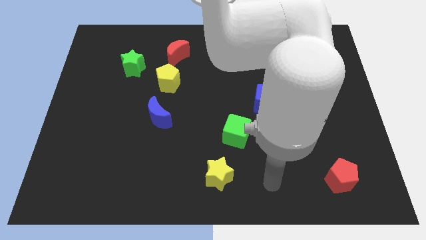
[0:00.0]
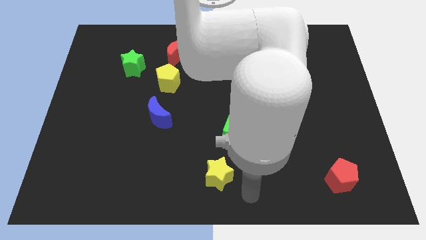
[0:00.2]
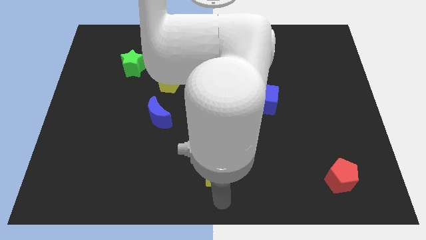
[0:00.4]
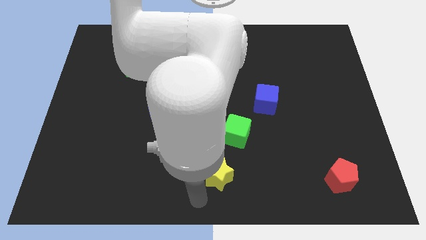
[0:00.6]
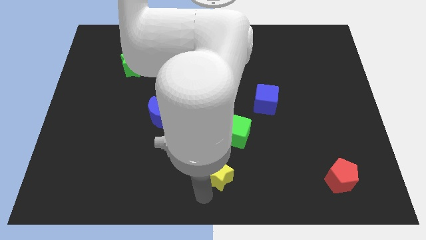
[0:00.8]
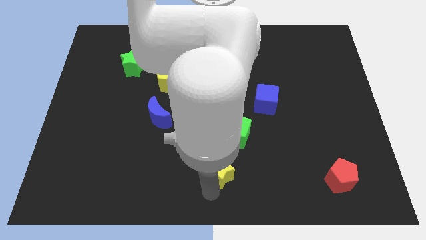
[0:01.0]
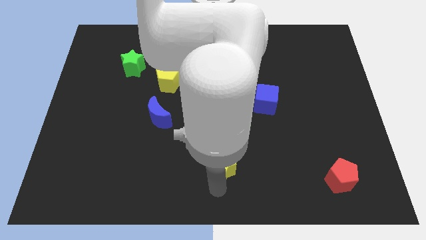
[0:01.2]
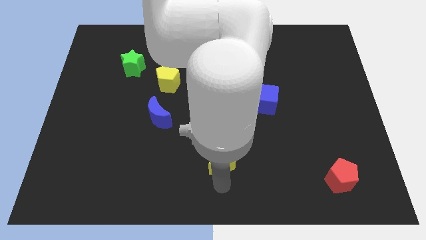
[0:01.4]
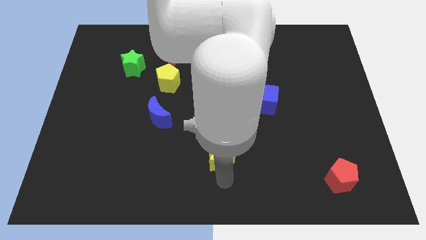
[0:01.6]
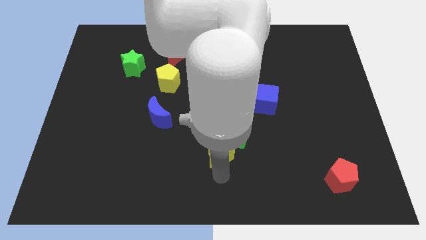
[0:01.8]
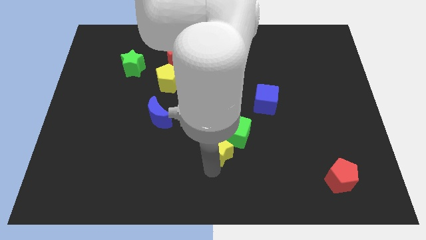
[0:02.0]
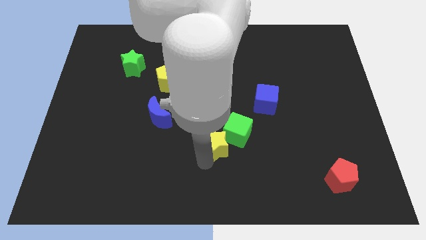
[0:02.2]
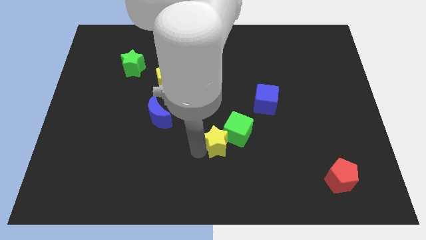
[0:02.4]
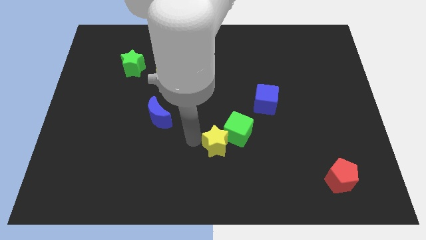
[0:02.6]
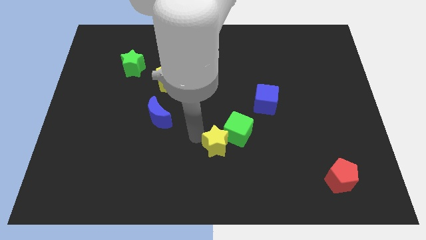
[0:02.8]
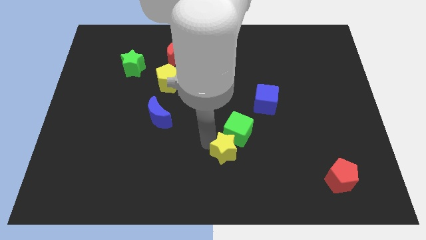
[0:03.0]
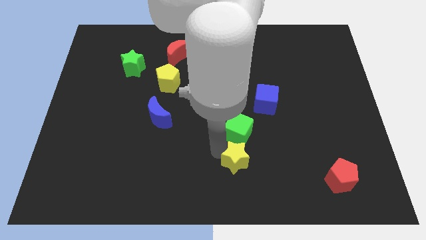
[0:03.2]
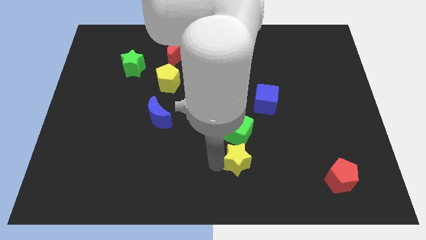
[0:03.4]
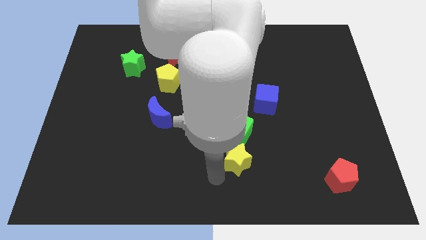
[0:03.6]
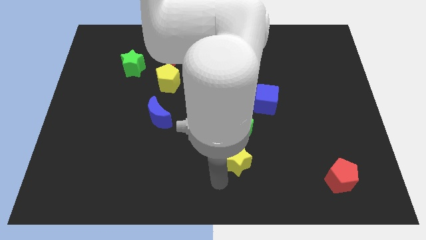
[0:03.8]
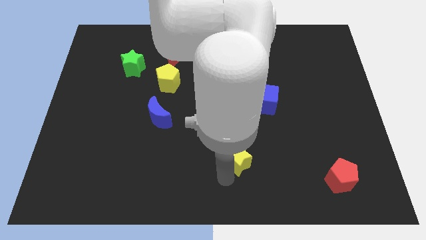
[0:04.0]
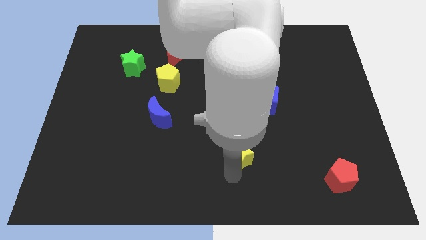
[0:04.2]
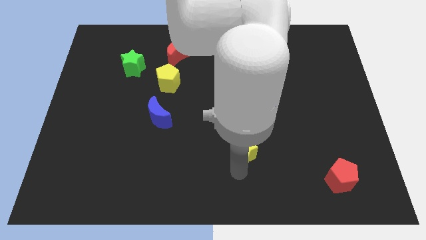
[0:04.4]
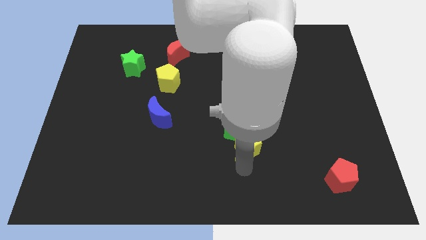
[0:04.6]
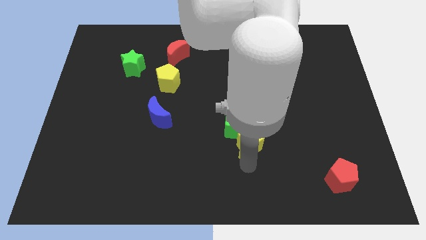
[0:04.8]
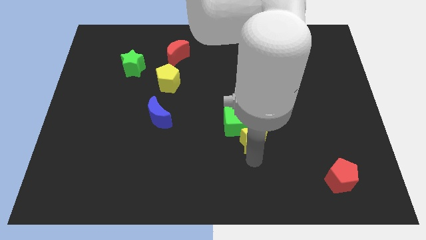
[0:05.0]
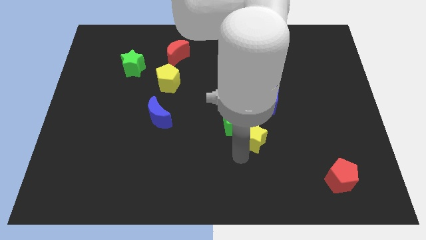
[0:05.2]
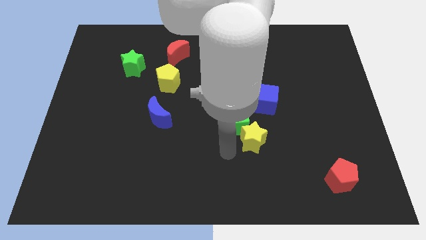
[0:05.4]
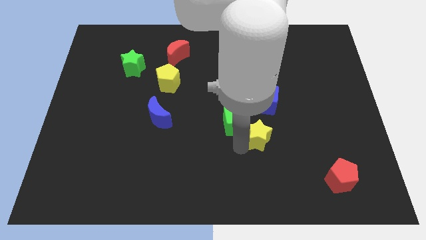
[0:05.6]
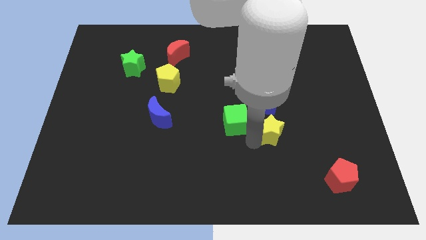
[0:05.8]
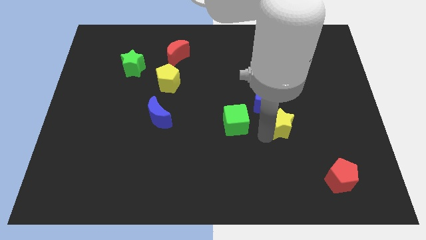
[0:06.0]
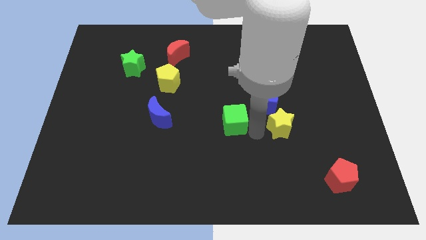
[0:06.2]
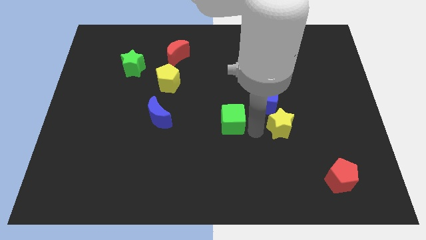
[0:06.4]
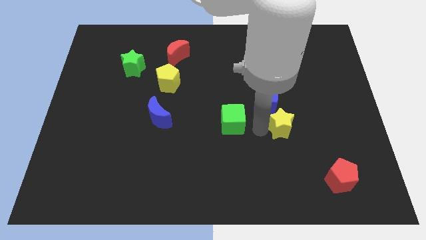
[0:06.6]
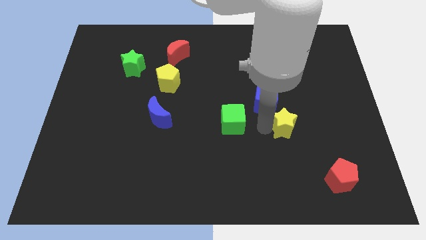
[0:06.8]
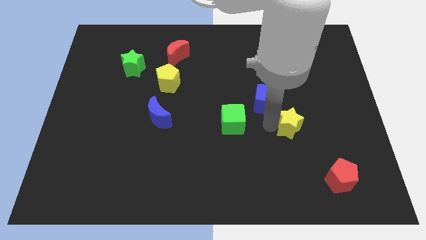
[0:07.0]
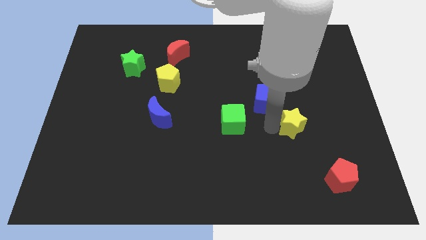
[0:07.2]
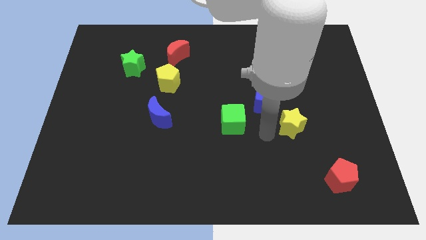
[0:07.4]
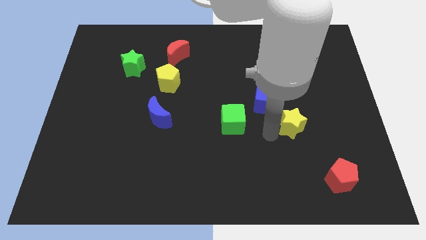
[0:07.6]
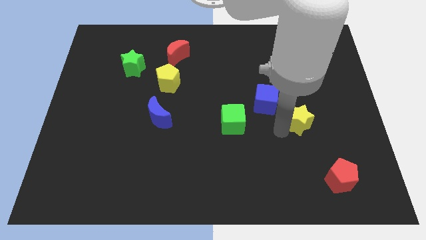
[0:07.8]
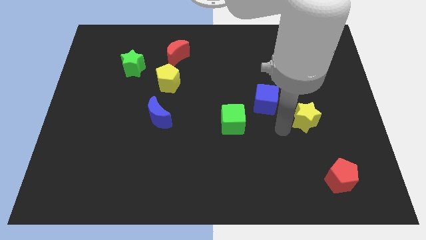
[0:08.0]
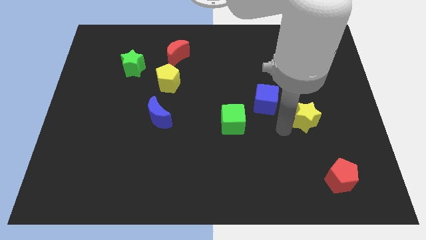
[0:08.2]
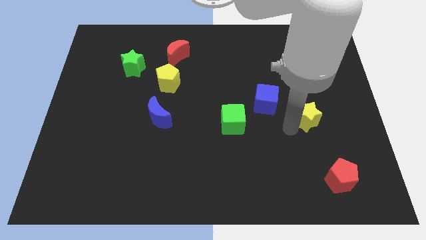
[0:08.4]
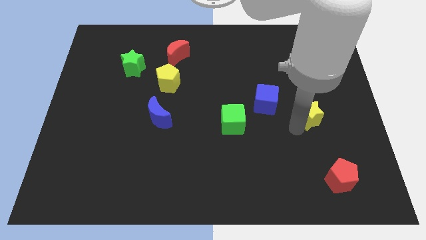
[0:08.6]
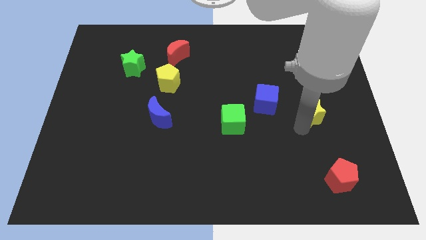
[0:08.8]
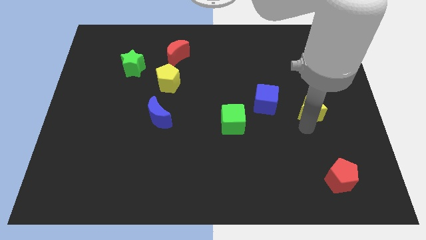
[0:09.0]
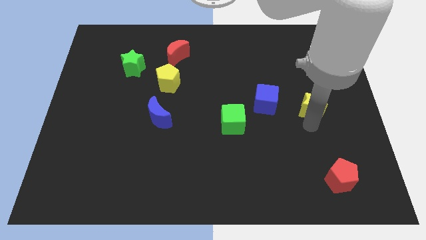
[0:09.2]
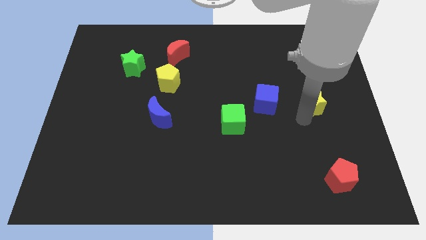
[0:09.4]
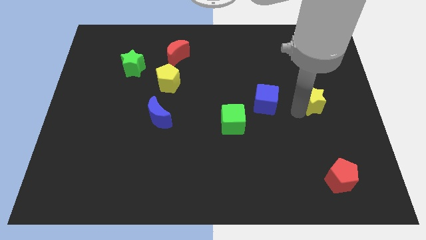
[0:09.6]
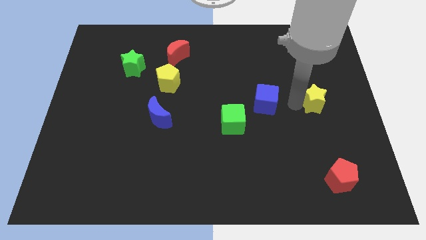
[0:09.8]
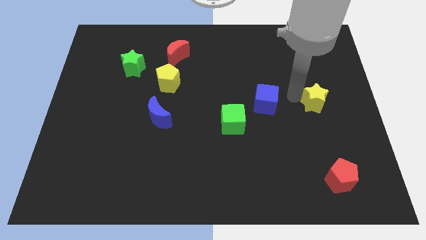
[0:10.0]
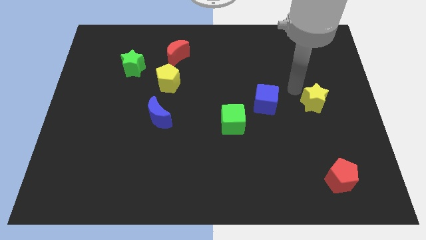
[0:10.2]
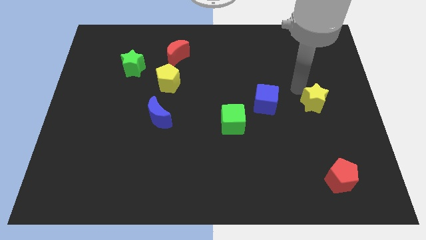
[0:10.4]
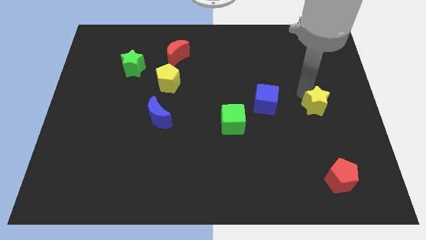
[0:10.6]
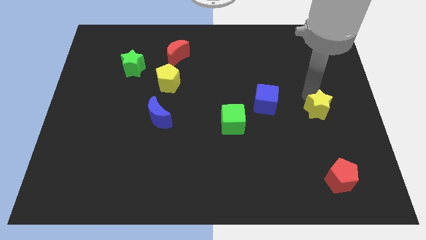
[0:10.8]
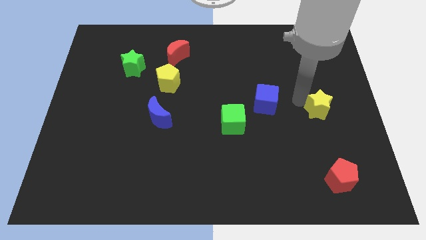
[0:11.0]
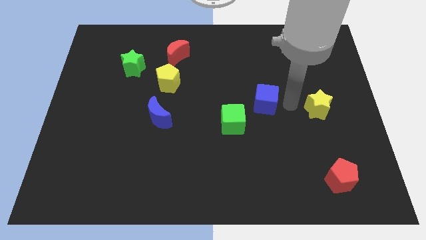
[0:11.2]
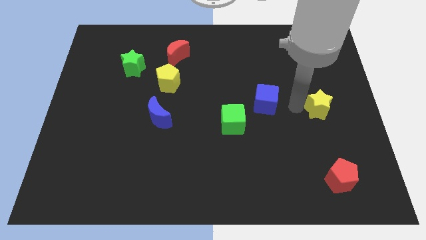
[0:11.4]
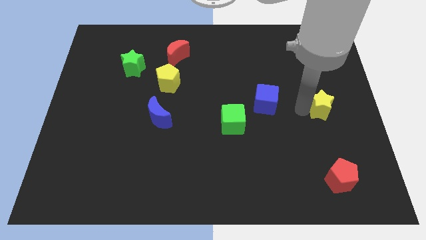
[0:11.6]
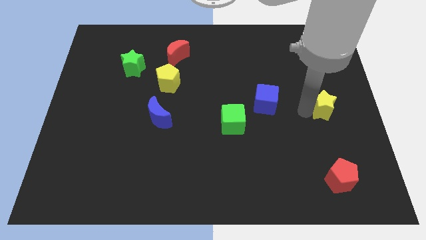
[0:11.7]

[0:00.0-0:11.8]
move the yellow star to the right side of the board

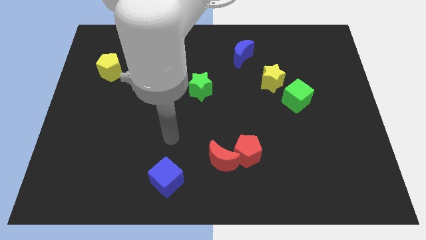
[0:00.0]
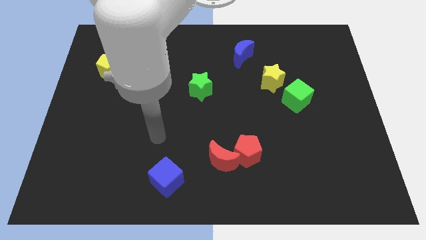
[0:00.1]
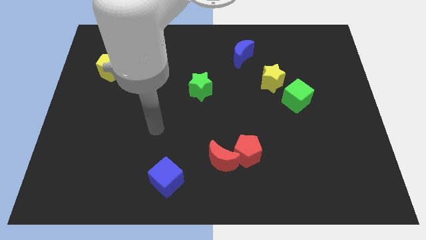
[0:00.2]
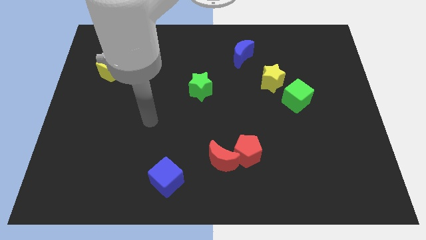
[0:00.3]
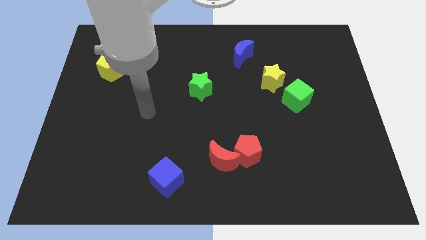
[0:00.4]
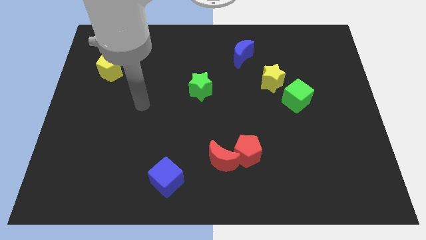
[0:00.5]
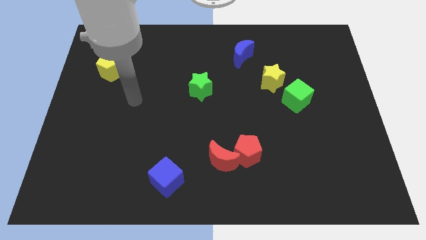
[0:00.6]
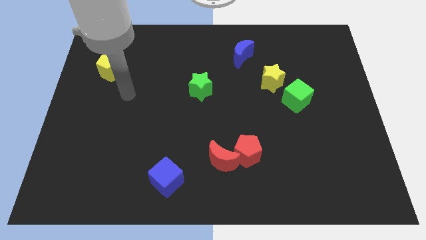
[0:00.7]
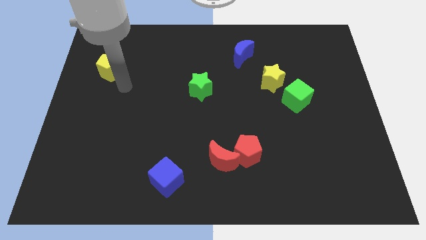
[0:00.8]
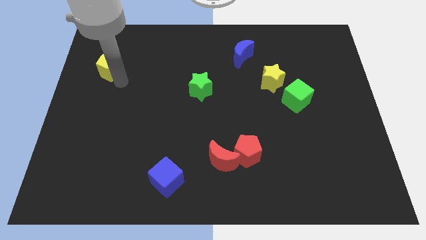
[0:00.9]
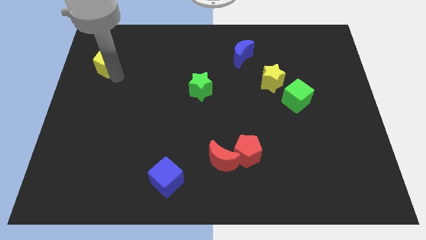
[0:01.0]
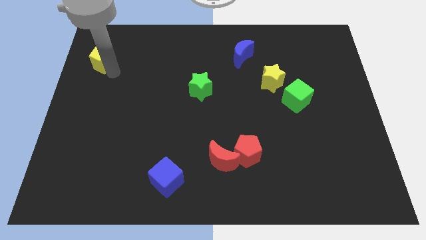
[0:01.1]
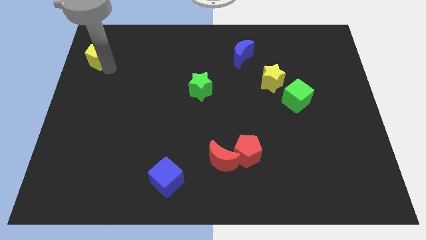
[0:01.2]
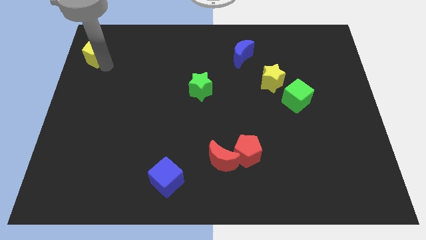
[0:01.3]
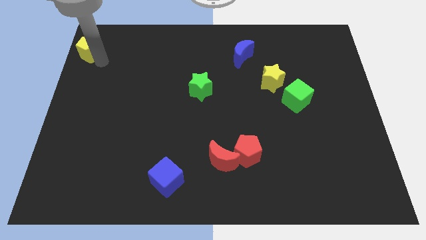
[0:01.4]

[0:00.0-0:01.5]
push the yellow pentagon to the top left of the board

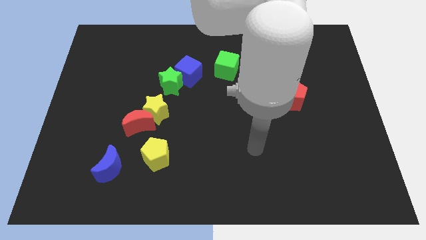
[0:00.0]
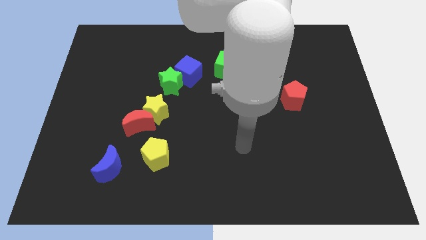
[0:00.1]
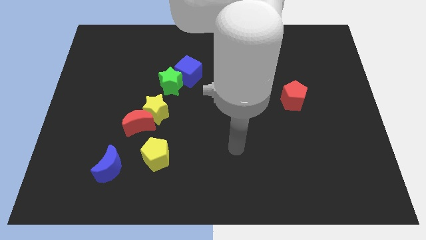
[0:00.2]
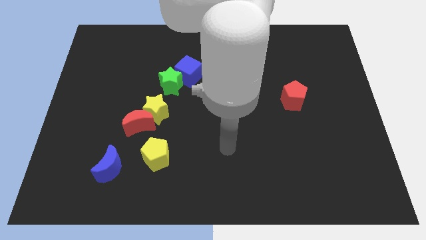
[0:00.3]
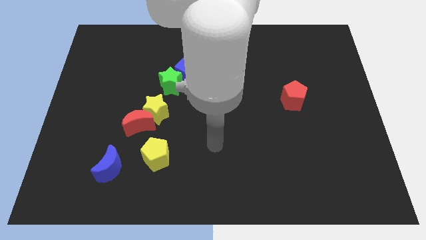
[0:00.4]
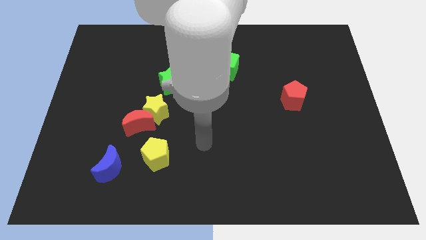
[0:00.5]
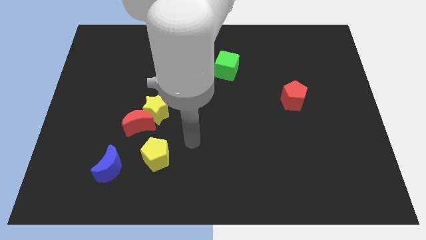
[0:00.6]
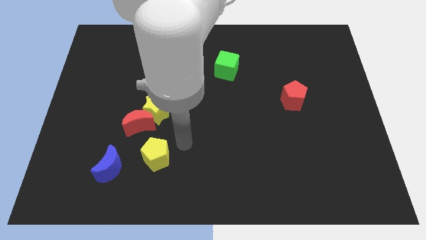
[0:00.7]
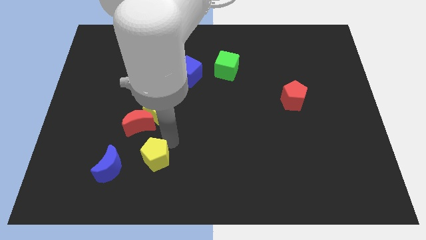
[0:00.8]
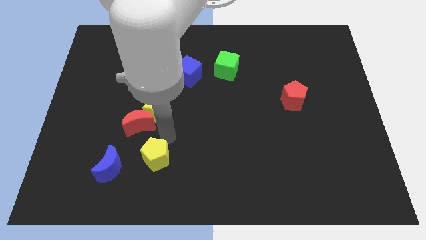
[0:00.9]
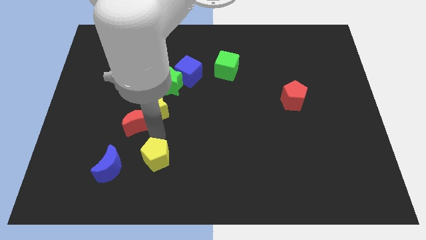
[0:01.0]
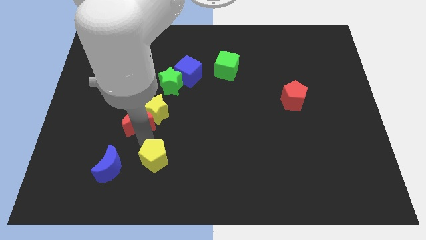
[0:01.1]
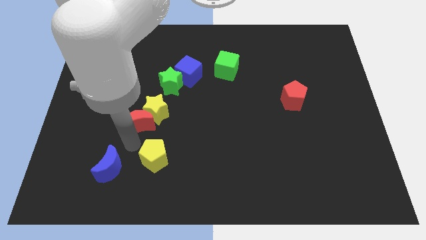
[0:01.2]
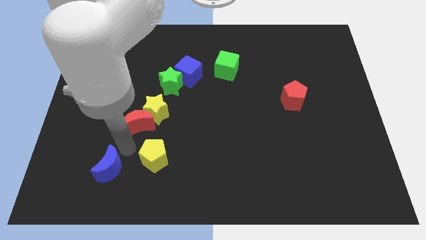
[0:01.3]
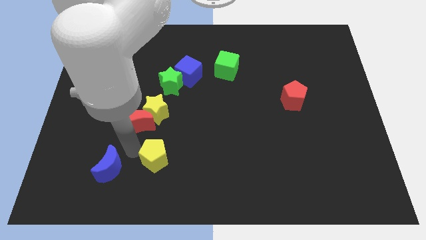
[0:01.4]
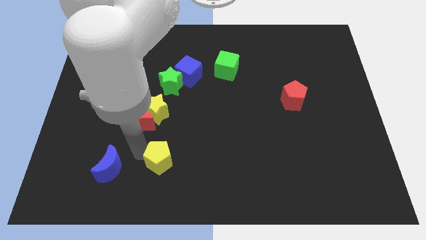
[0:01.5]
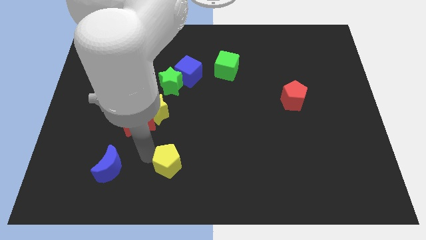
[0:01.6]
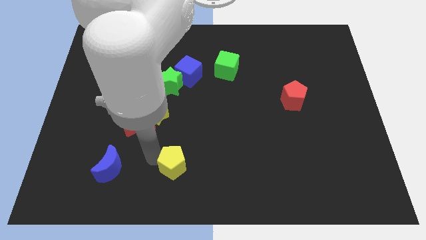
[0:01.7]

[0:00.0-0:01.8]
slide the yellow pentagon to the bottom
